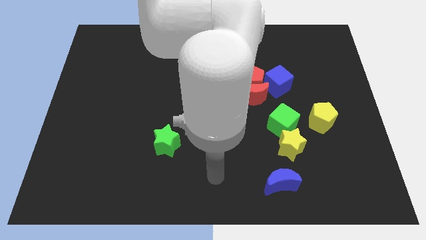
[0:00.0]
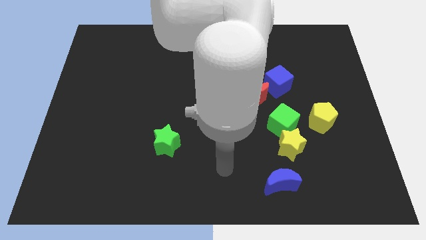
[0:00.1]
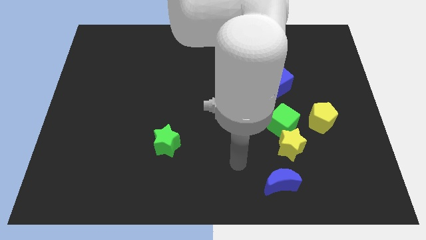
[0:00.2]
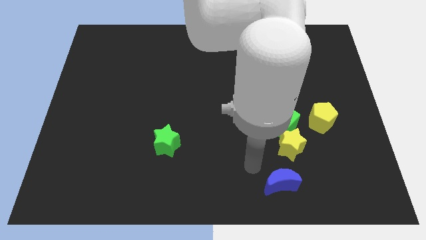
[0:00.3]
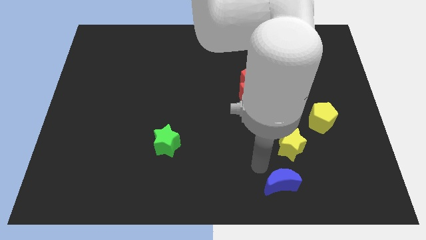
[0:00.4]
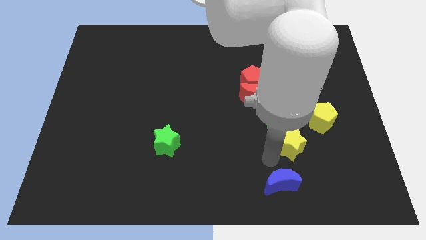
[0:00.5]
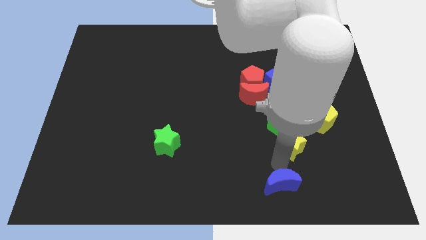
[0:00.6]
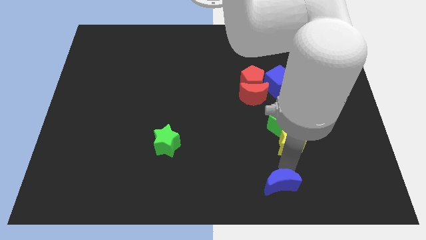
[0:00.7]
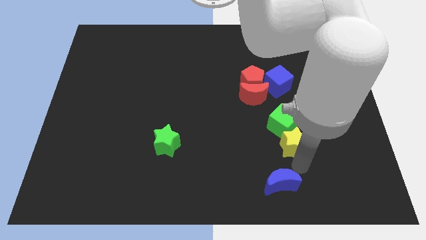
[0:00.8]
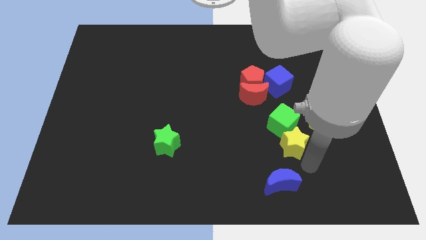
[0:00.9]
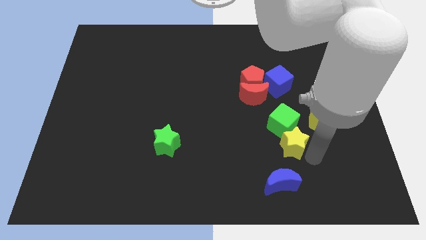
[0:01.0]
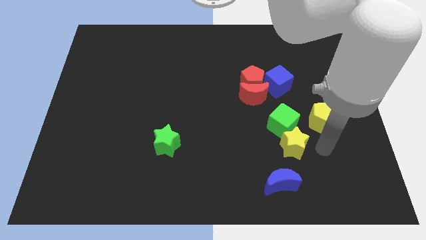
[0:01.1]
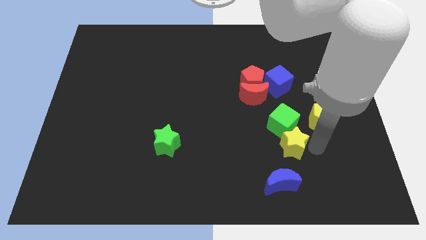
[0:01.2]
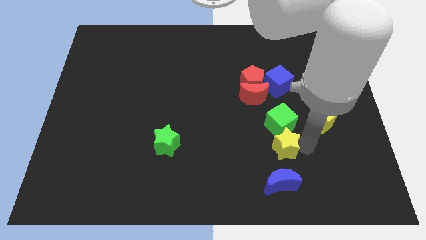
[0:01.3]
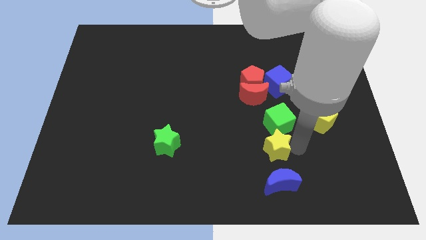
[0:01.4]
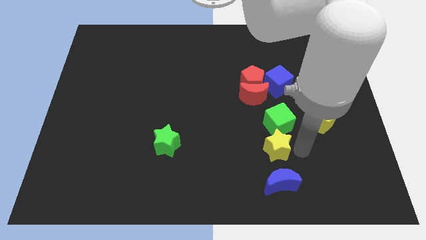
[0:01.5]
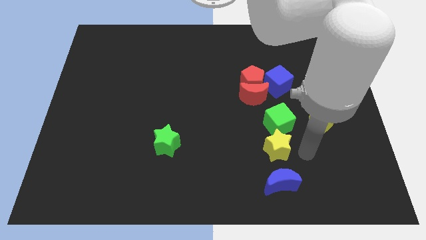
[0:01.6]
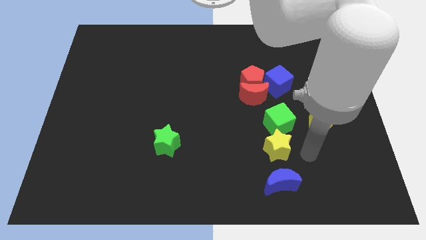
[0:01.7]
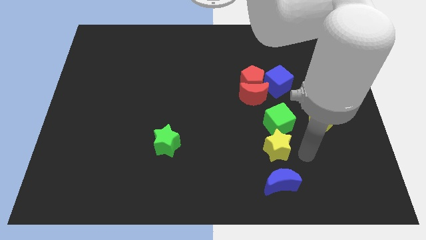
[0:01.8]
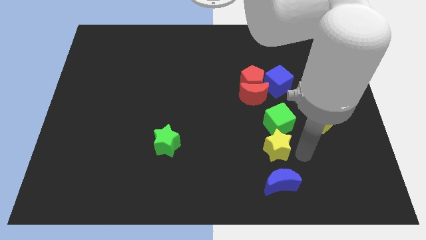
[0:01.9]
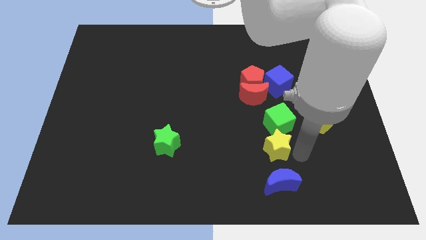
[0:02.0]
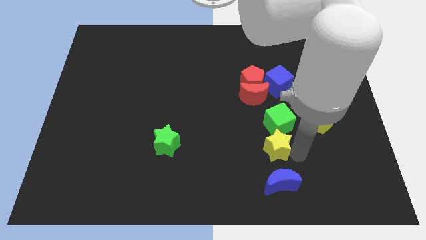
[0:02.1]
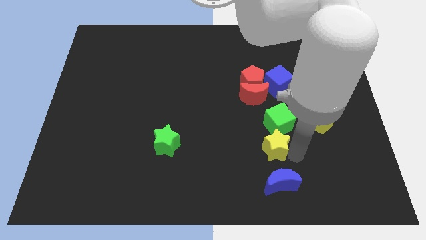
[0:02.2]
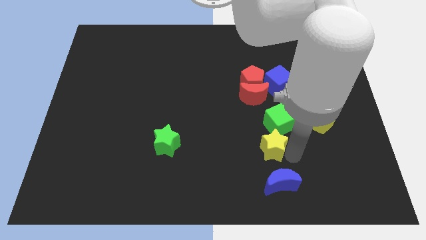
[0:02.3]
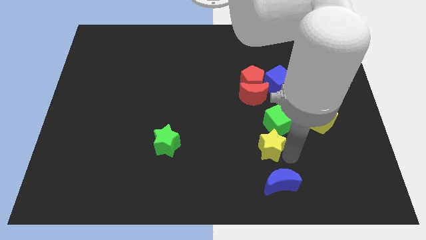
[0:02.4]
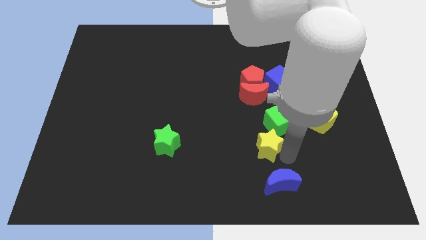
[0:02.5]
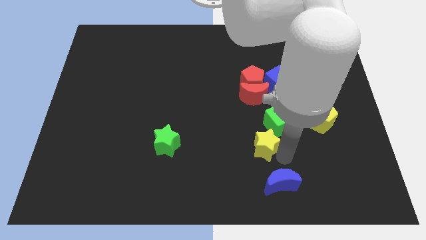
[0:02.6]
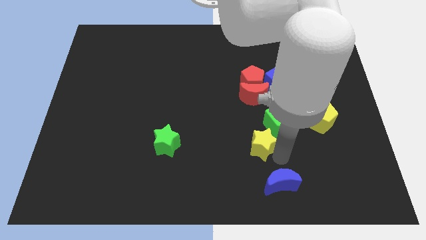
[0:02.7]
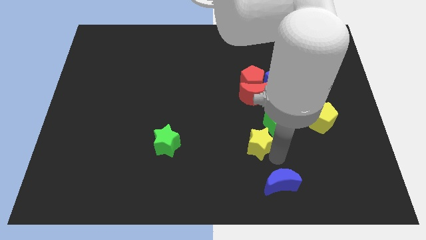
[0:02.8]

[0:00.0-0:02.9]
move the yellow star left somewhat

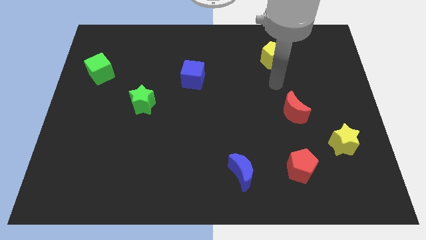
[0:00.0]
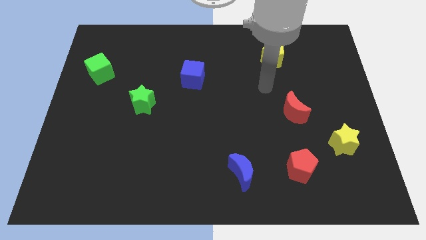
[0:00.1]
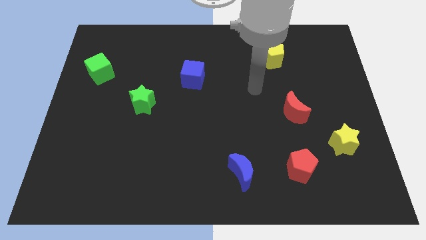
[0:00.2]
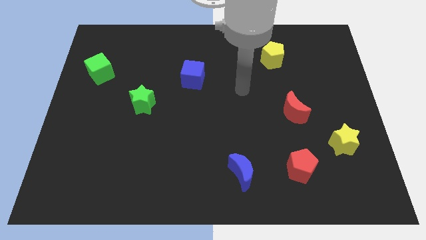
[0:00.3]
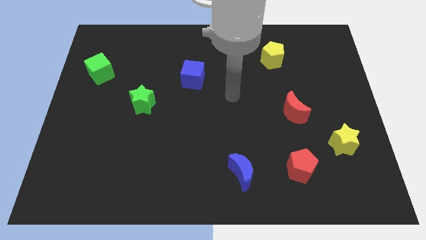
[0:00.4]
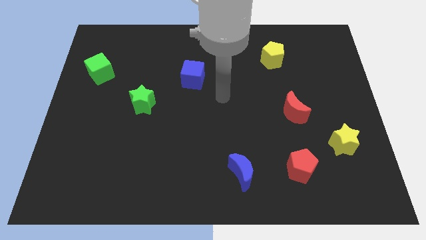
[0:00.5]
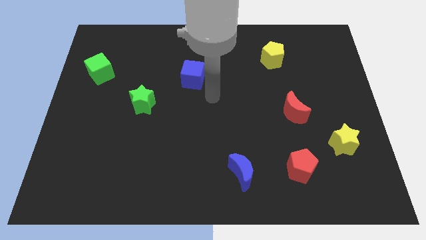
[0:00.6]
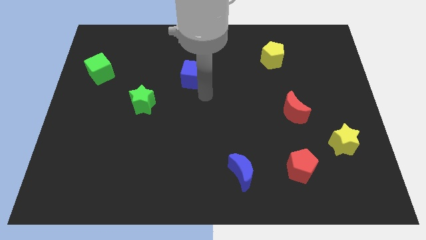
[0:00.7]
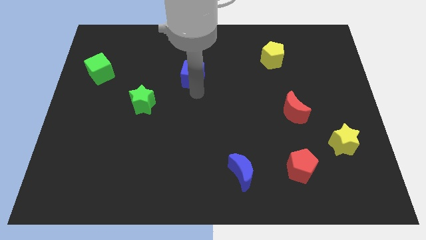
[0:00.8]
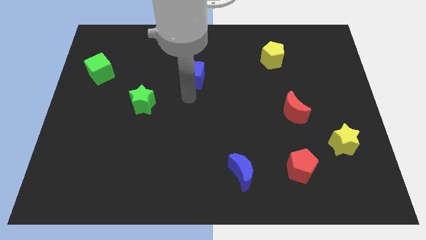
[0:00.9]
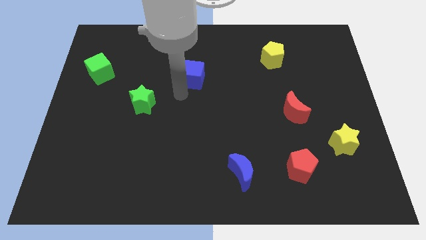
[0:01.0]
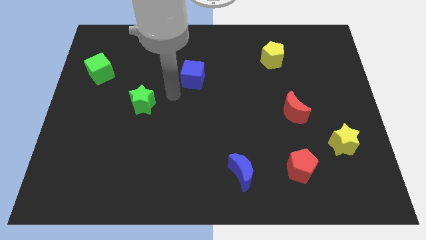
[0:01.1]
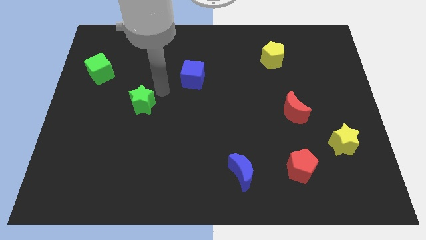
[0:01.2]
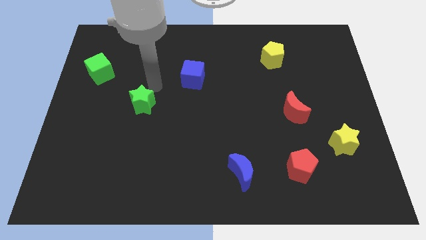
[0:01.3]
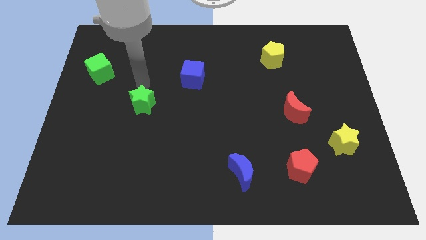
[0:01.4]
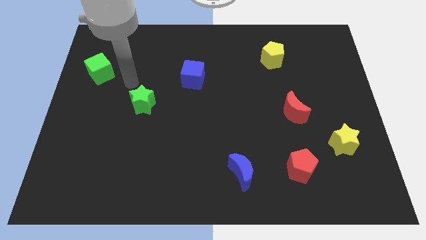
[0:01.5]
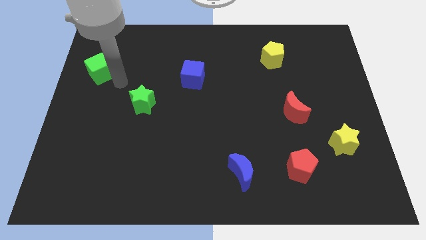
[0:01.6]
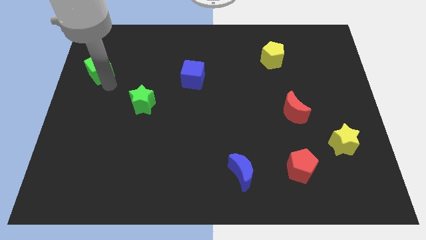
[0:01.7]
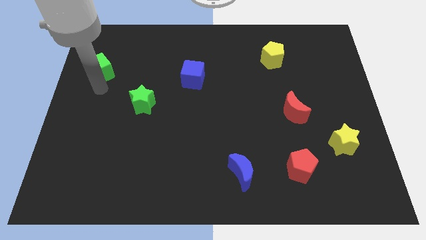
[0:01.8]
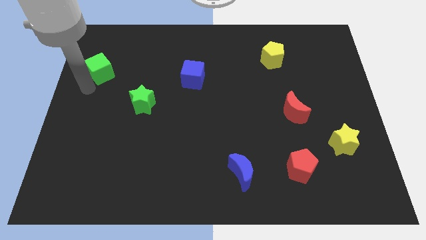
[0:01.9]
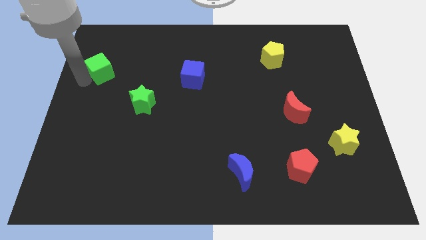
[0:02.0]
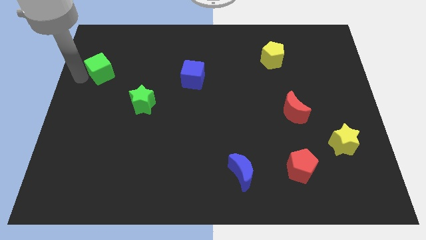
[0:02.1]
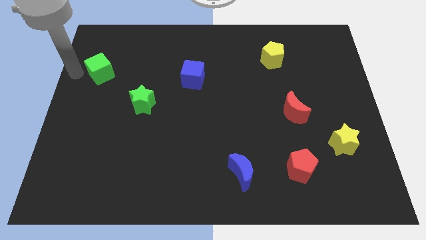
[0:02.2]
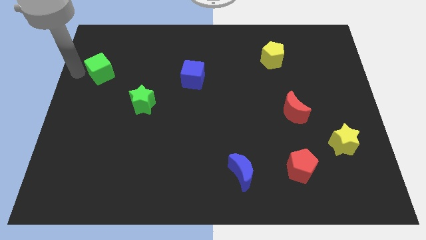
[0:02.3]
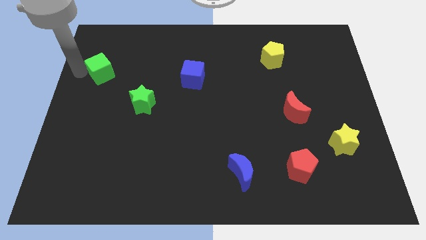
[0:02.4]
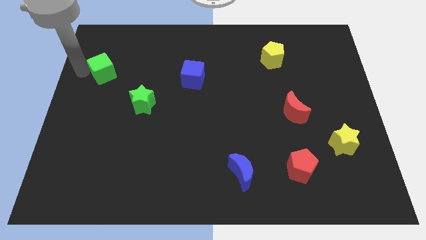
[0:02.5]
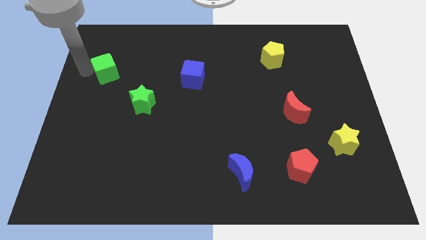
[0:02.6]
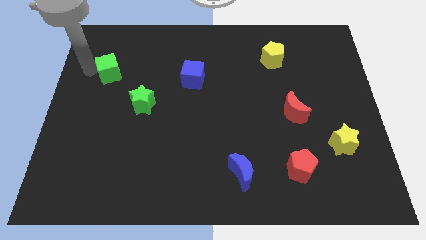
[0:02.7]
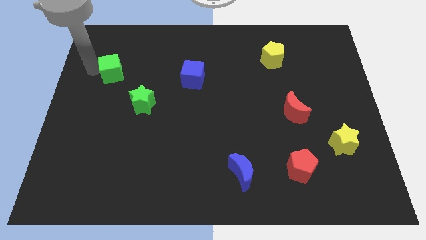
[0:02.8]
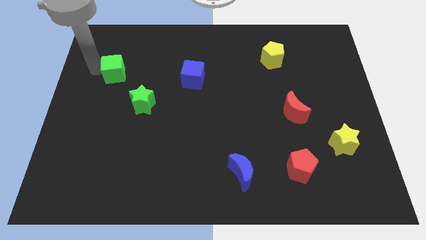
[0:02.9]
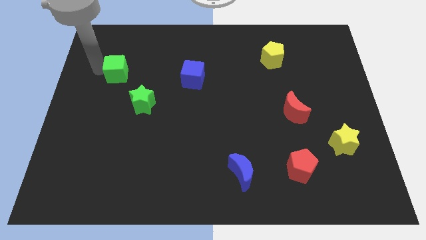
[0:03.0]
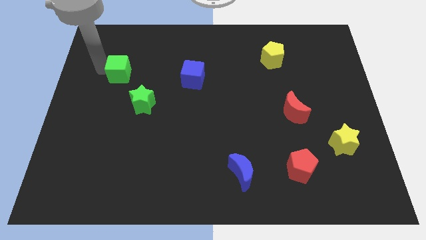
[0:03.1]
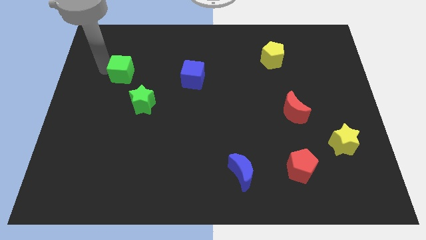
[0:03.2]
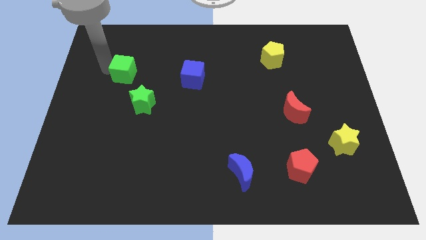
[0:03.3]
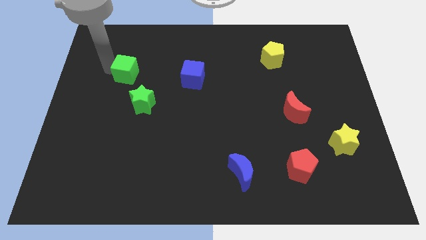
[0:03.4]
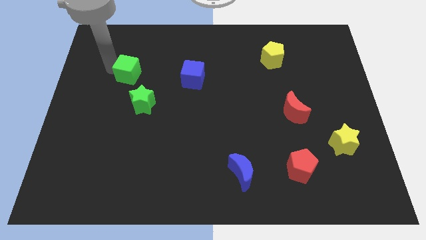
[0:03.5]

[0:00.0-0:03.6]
slightly slide the green cube to the right

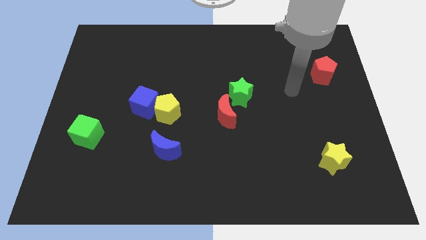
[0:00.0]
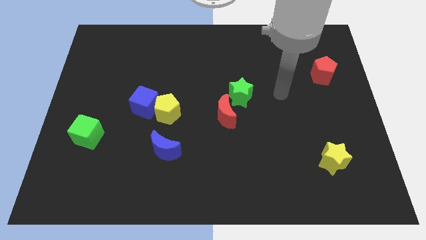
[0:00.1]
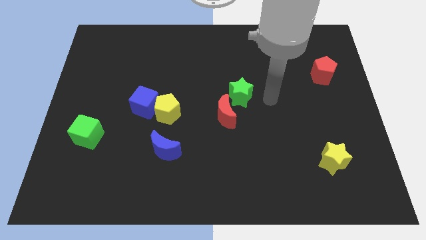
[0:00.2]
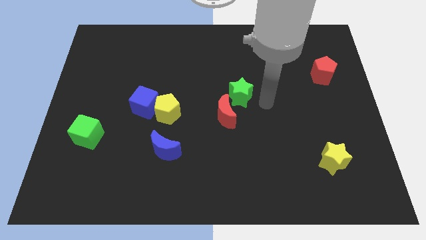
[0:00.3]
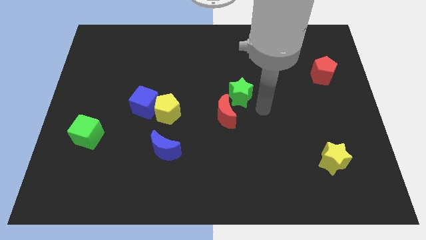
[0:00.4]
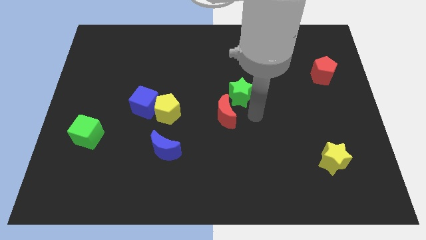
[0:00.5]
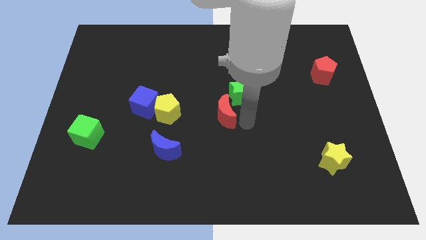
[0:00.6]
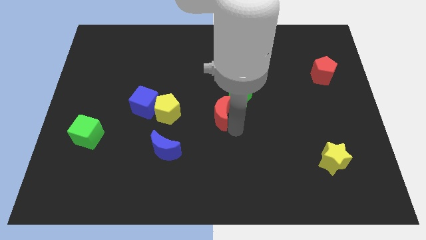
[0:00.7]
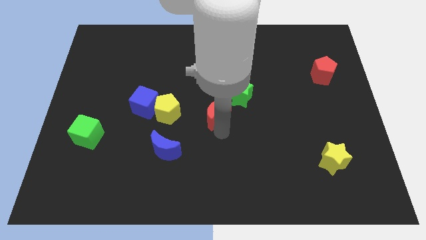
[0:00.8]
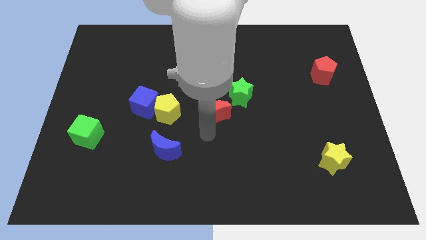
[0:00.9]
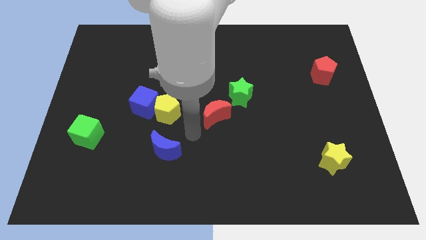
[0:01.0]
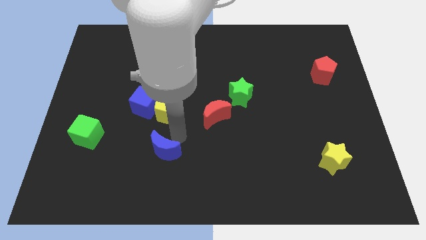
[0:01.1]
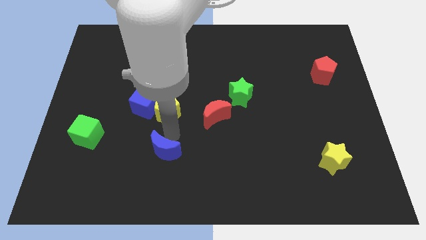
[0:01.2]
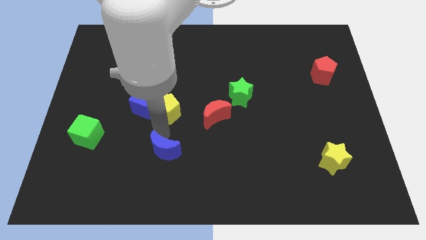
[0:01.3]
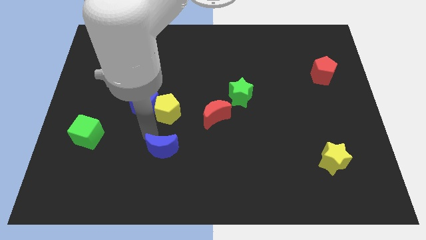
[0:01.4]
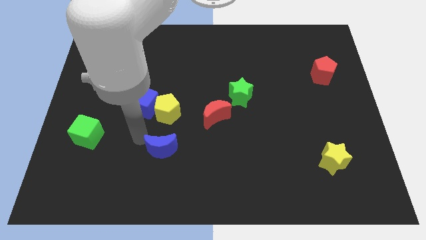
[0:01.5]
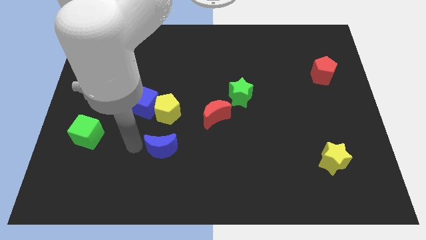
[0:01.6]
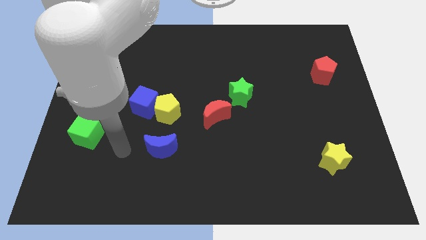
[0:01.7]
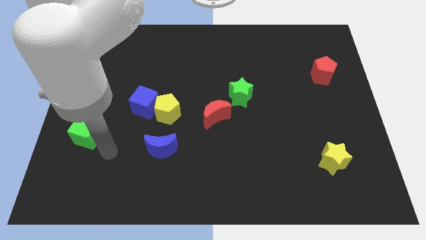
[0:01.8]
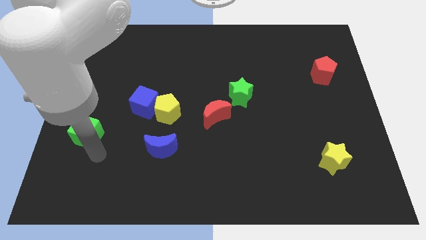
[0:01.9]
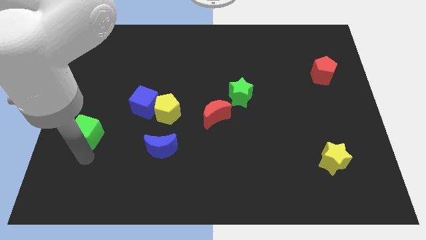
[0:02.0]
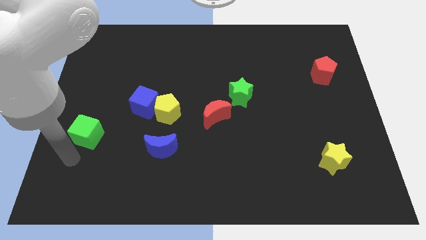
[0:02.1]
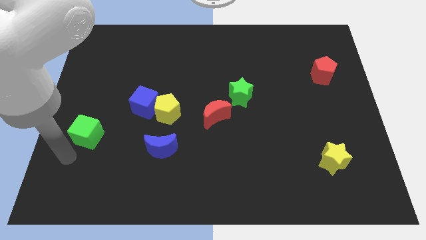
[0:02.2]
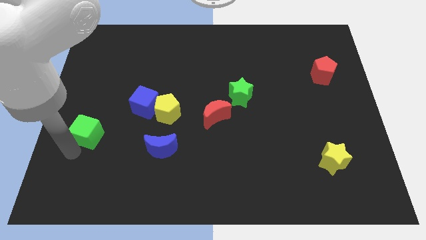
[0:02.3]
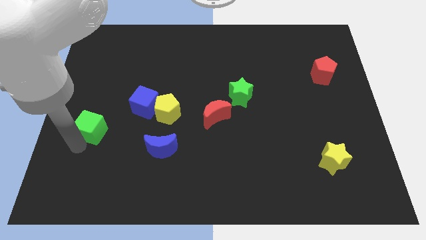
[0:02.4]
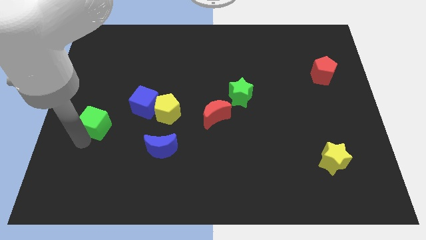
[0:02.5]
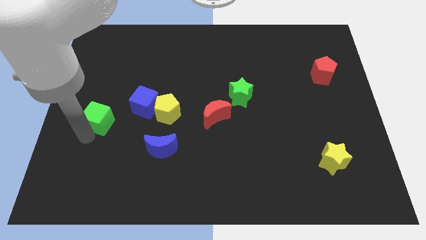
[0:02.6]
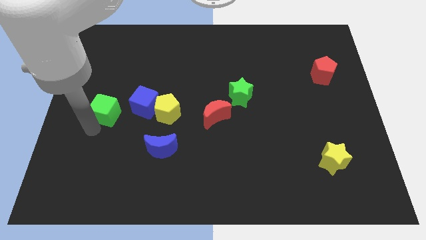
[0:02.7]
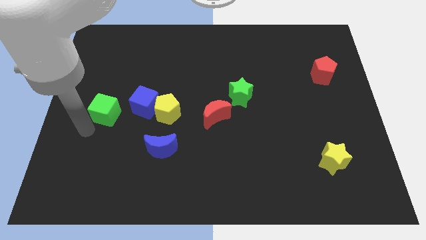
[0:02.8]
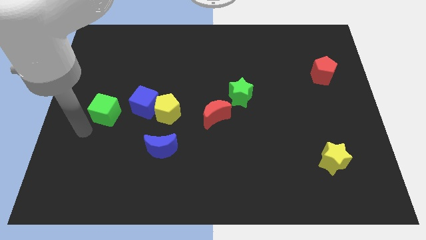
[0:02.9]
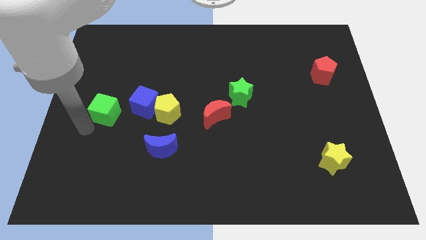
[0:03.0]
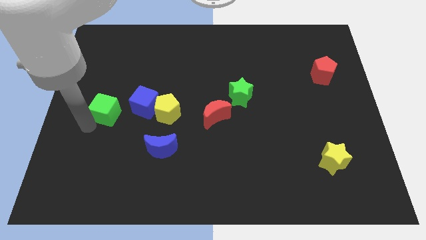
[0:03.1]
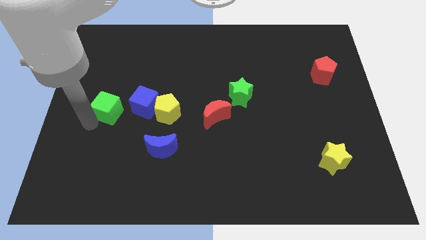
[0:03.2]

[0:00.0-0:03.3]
push the green cube up and then to the right a bit
